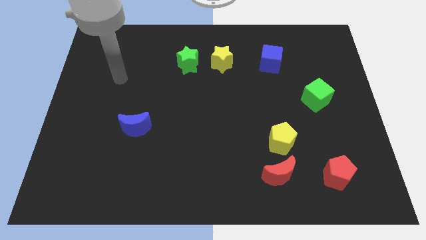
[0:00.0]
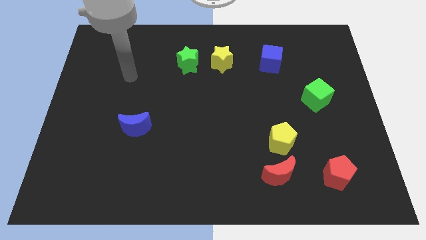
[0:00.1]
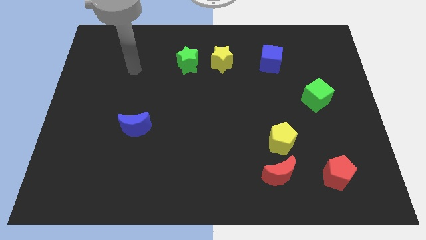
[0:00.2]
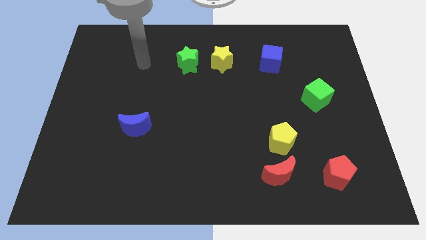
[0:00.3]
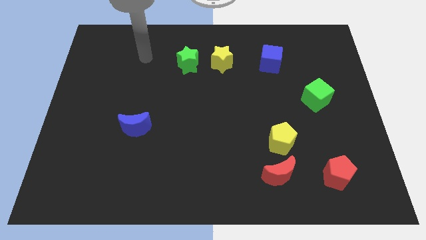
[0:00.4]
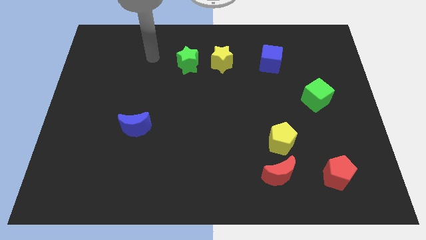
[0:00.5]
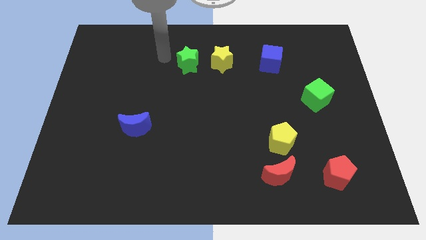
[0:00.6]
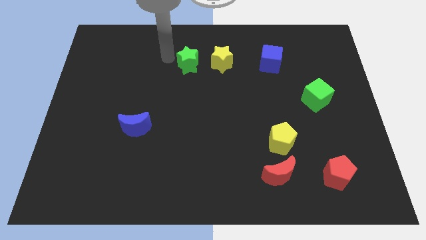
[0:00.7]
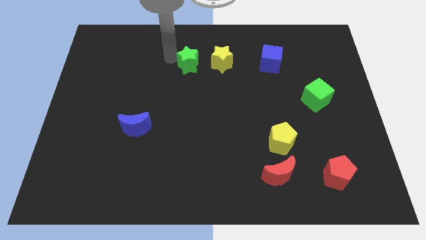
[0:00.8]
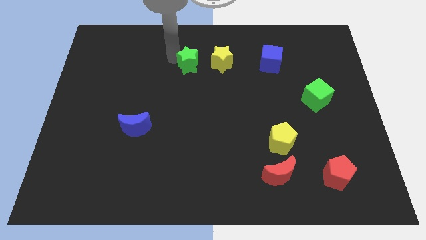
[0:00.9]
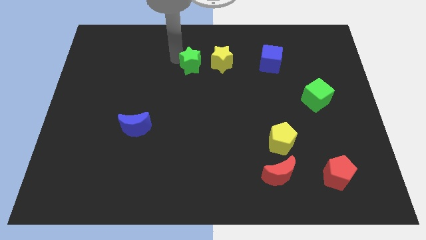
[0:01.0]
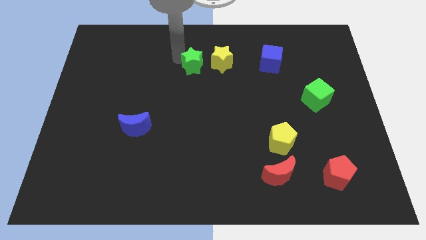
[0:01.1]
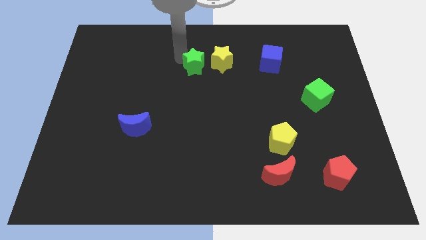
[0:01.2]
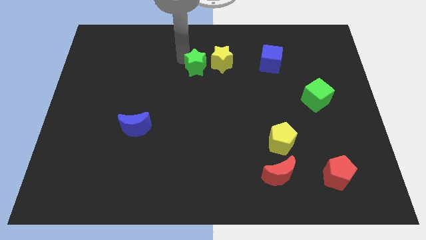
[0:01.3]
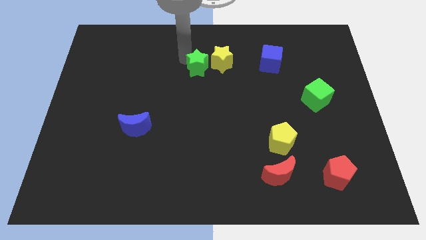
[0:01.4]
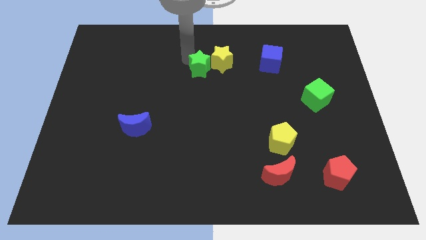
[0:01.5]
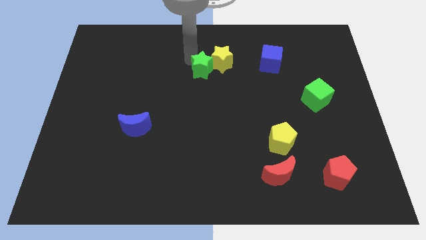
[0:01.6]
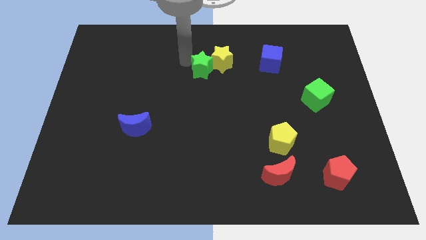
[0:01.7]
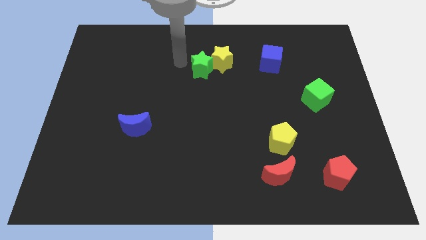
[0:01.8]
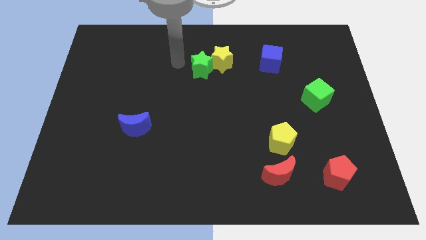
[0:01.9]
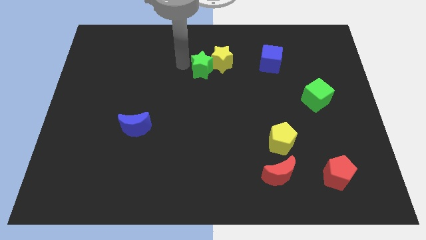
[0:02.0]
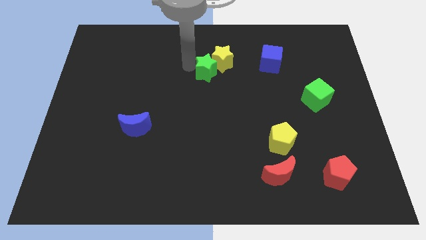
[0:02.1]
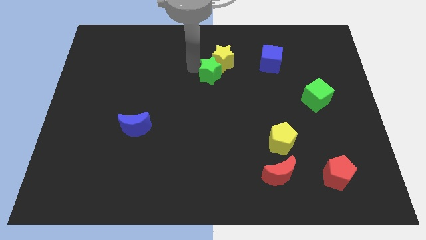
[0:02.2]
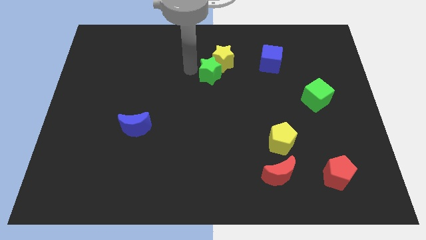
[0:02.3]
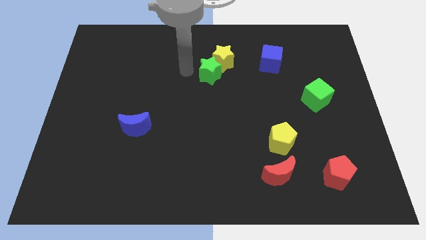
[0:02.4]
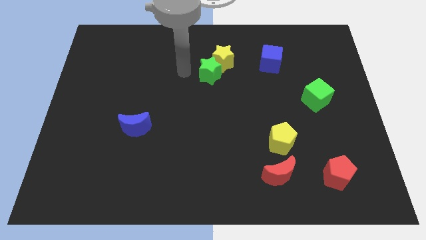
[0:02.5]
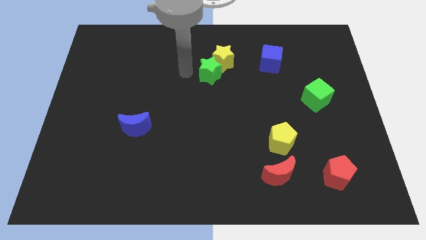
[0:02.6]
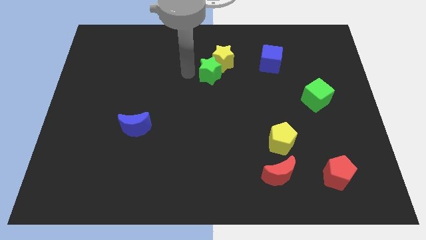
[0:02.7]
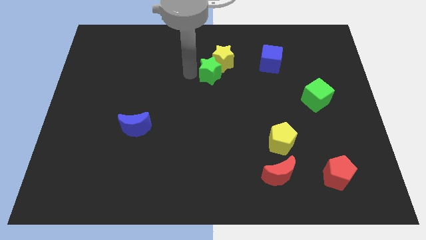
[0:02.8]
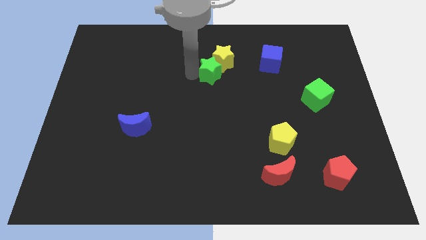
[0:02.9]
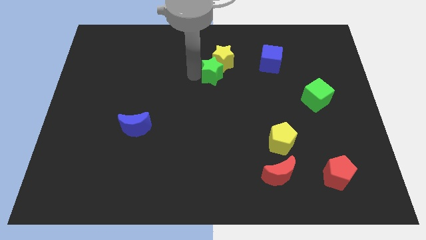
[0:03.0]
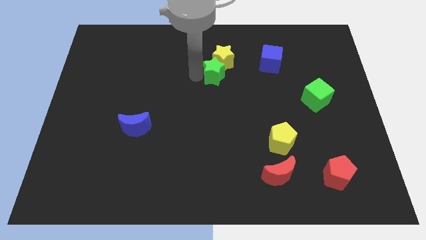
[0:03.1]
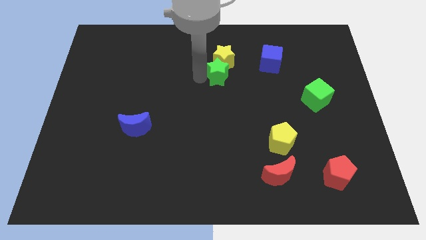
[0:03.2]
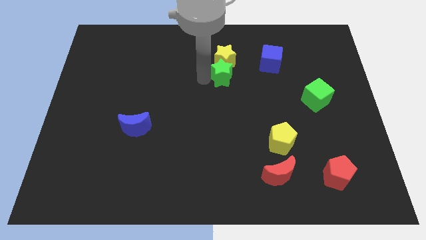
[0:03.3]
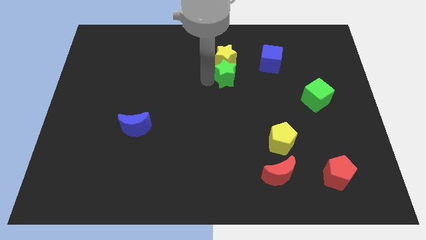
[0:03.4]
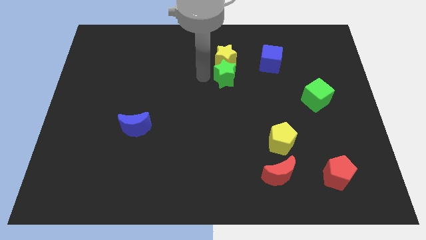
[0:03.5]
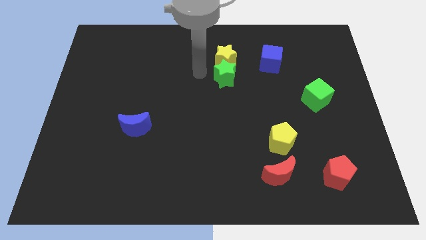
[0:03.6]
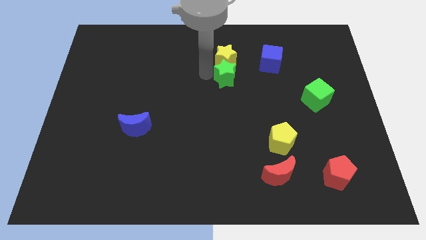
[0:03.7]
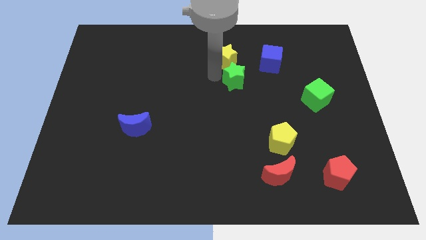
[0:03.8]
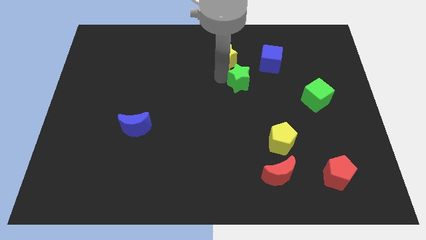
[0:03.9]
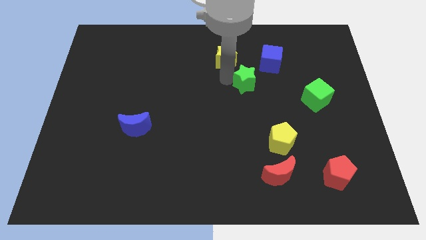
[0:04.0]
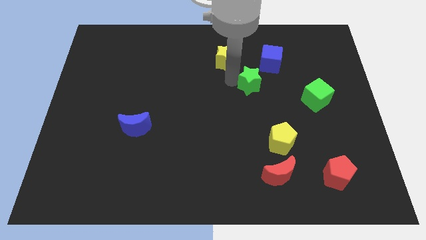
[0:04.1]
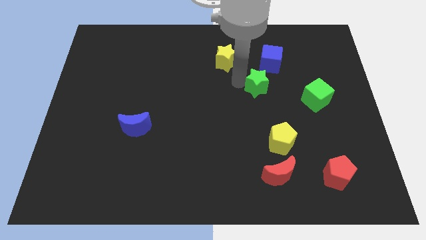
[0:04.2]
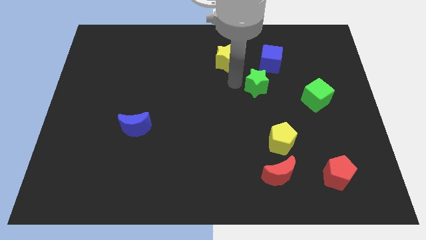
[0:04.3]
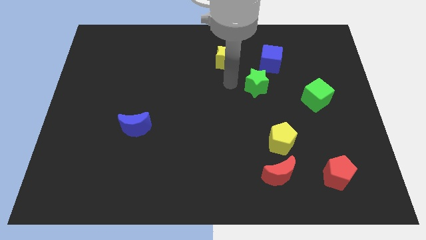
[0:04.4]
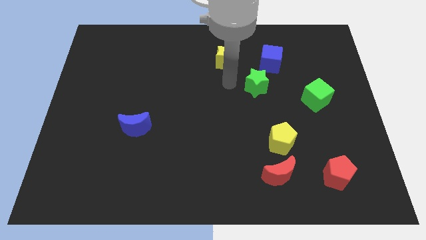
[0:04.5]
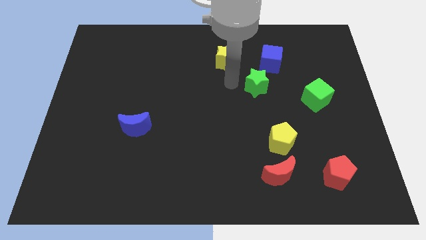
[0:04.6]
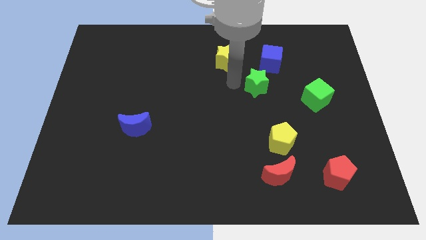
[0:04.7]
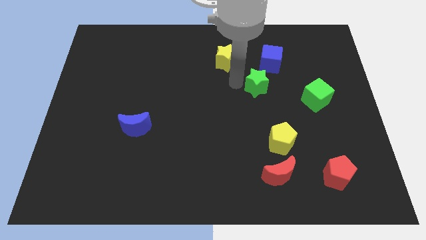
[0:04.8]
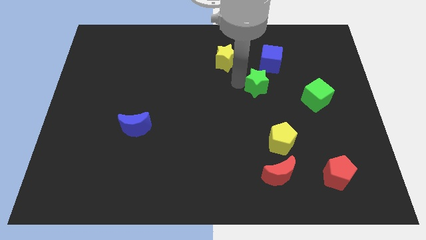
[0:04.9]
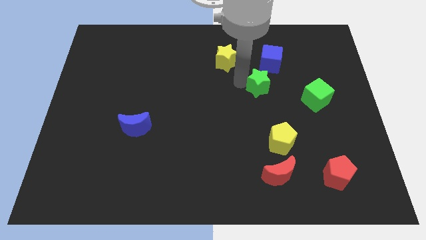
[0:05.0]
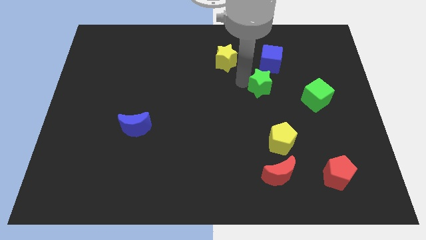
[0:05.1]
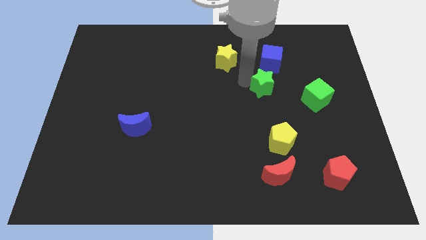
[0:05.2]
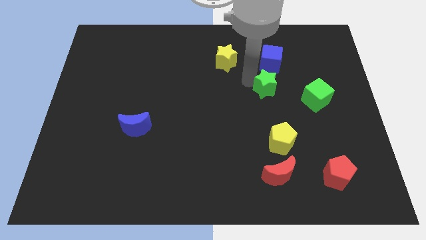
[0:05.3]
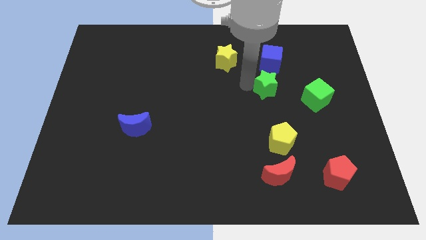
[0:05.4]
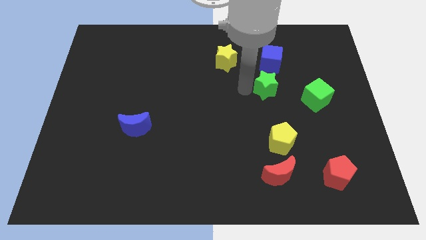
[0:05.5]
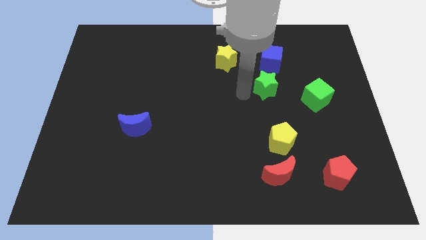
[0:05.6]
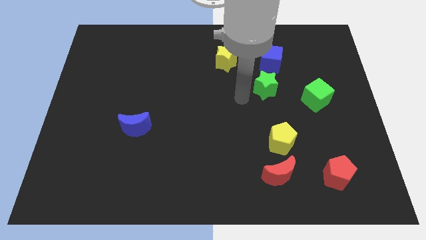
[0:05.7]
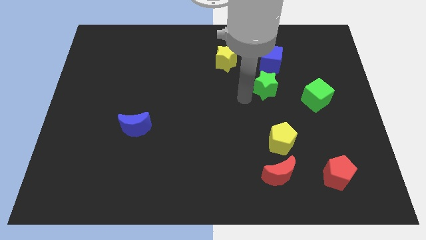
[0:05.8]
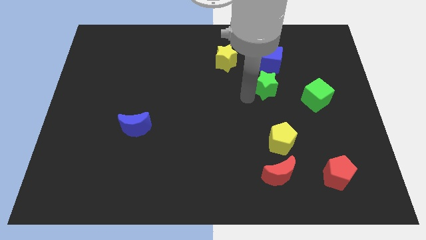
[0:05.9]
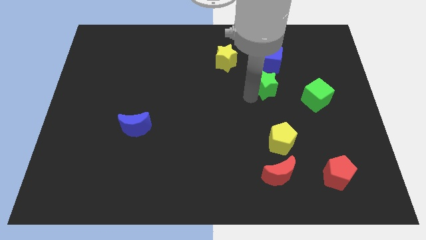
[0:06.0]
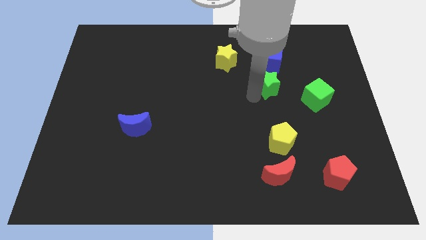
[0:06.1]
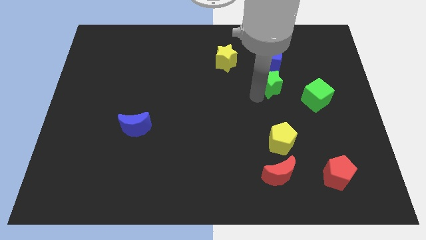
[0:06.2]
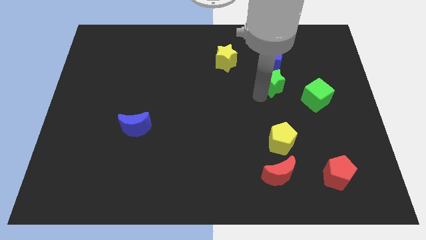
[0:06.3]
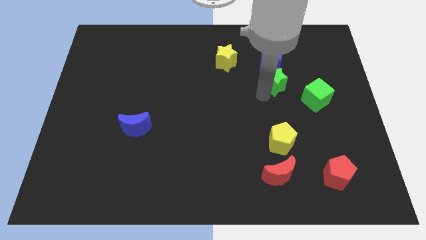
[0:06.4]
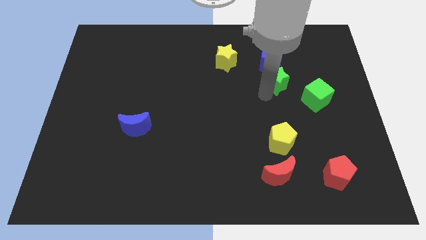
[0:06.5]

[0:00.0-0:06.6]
move the green star right

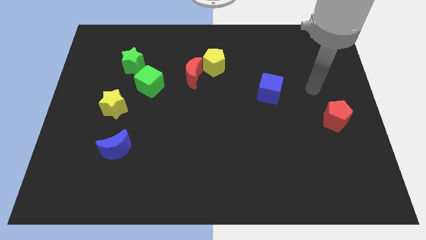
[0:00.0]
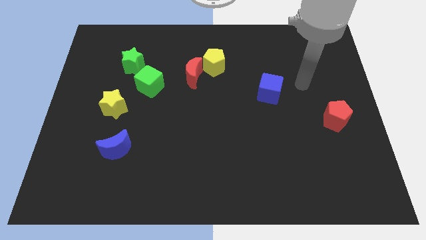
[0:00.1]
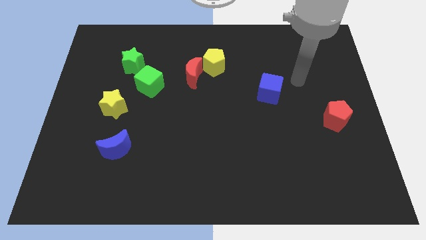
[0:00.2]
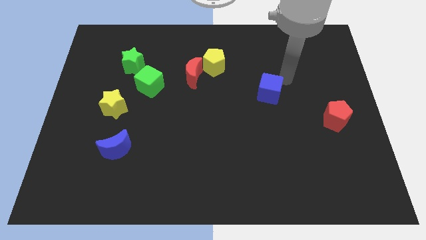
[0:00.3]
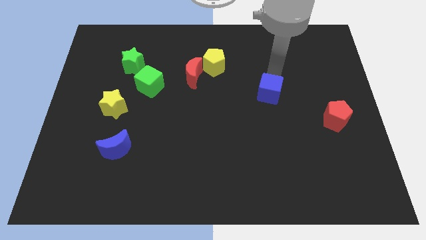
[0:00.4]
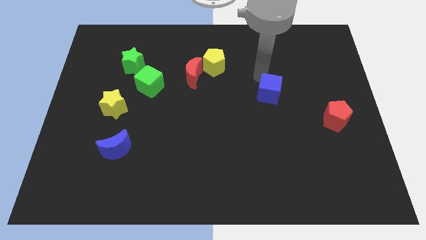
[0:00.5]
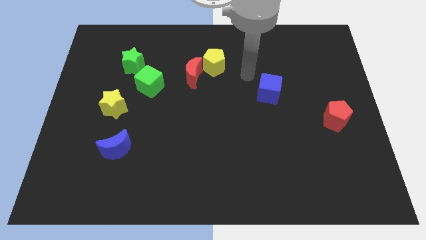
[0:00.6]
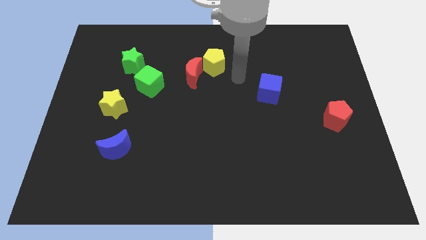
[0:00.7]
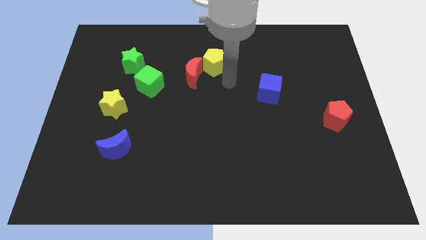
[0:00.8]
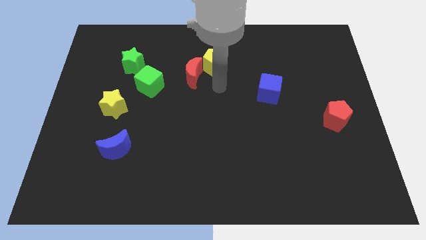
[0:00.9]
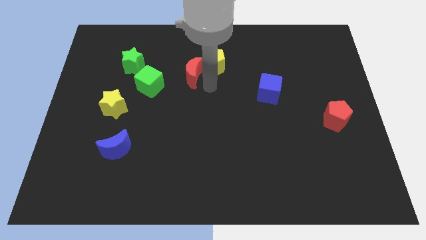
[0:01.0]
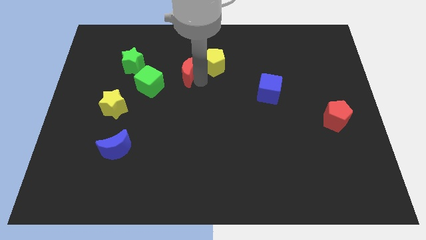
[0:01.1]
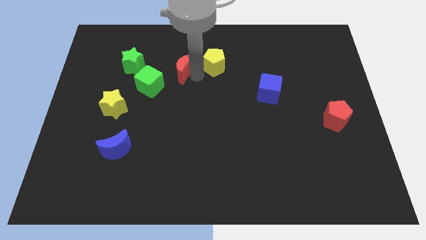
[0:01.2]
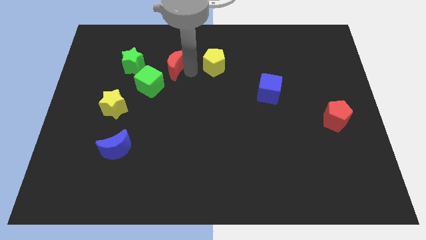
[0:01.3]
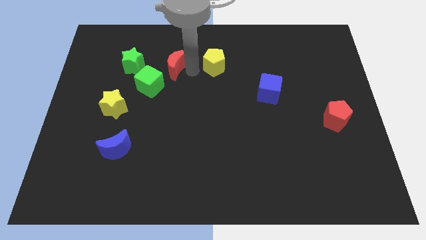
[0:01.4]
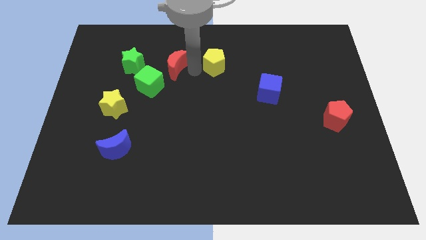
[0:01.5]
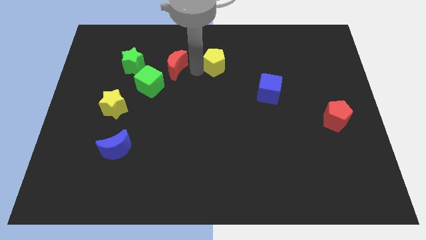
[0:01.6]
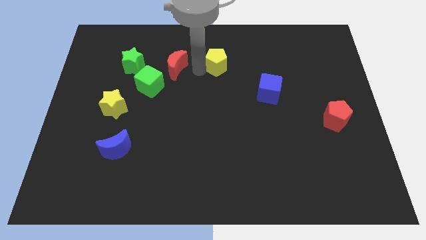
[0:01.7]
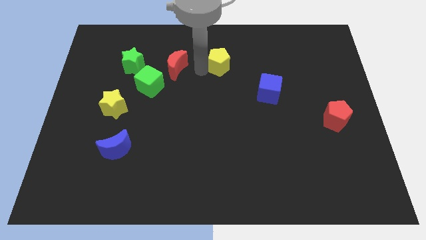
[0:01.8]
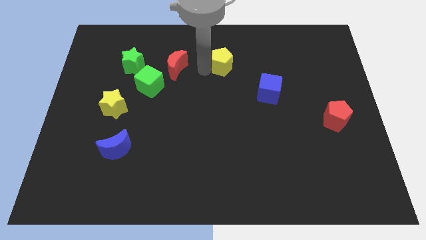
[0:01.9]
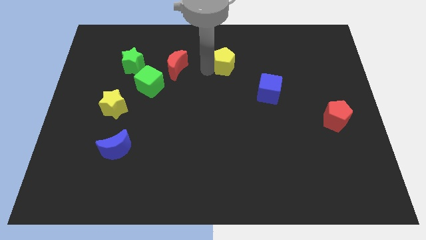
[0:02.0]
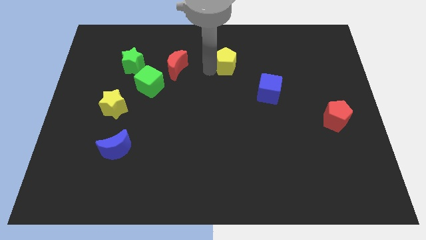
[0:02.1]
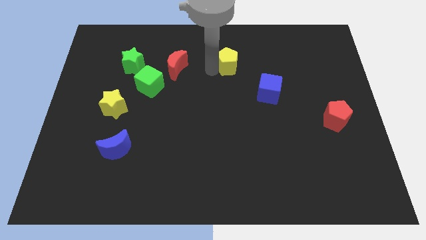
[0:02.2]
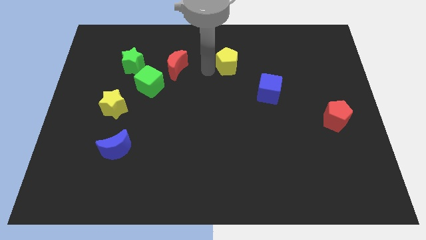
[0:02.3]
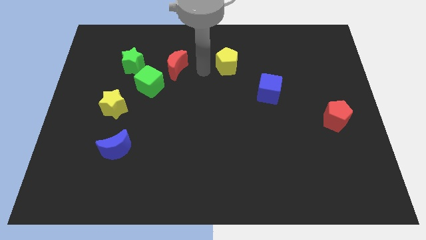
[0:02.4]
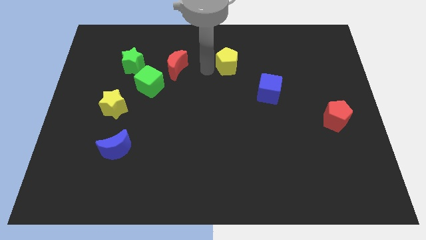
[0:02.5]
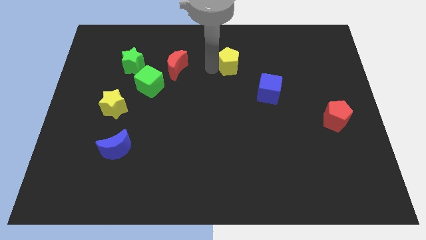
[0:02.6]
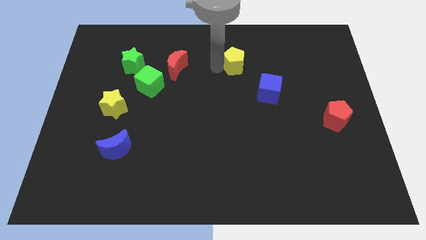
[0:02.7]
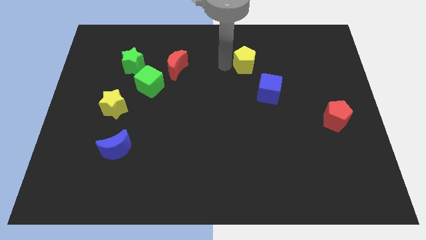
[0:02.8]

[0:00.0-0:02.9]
move the yellow pentagon to the right a bit
